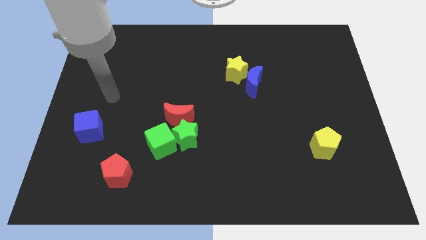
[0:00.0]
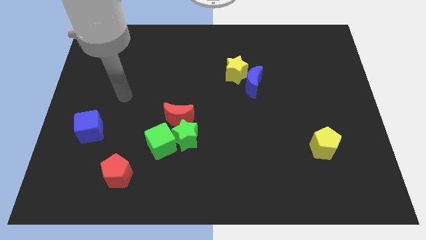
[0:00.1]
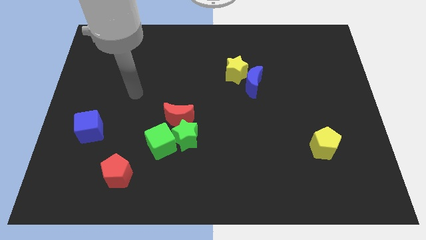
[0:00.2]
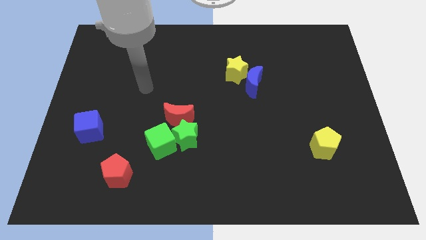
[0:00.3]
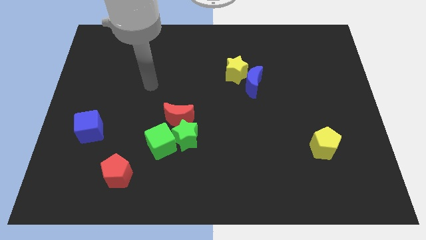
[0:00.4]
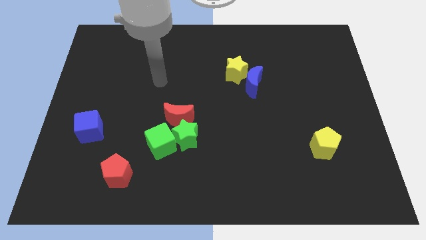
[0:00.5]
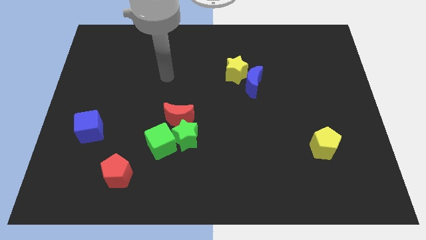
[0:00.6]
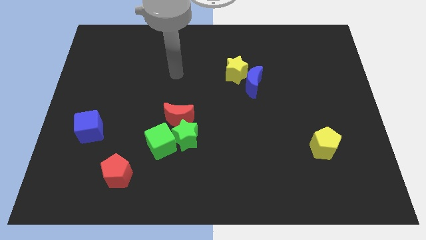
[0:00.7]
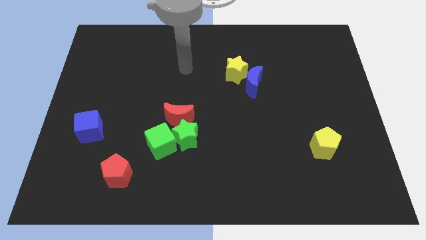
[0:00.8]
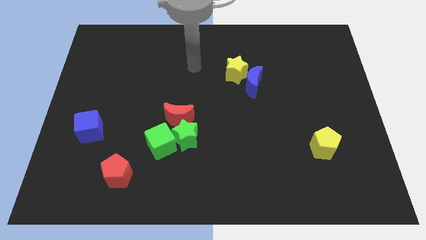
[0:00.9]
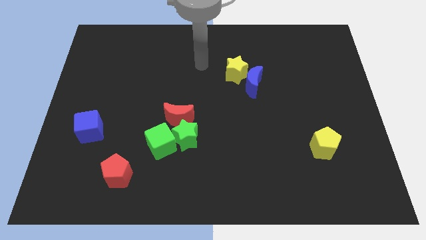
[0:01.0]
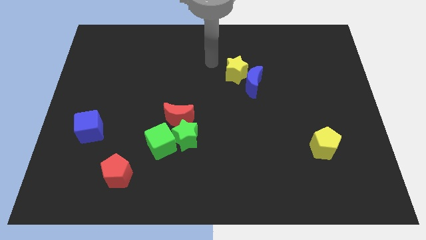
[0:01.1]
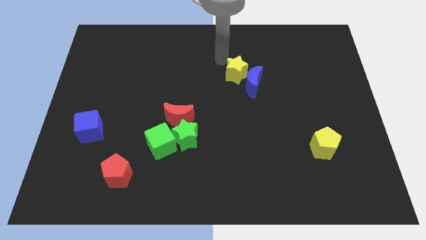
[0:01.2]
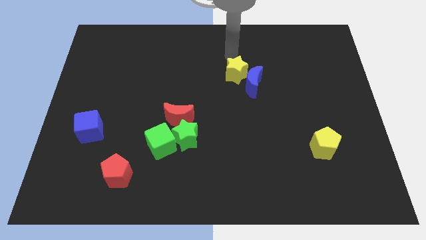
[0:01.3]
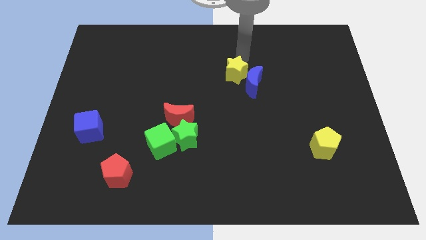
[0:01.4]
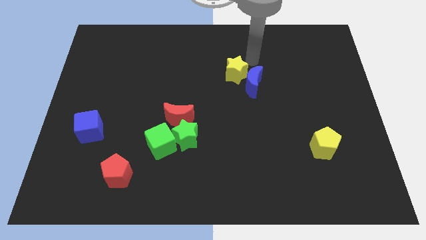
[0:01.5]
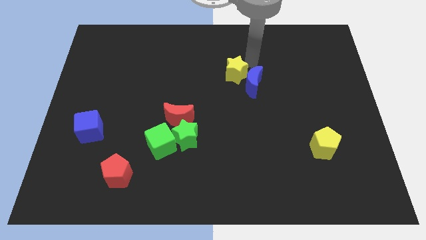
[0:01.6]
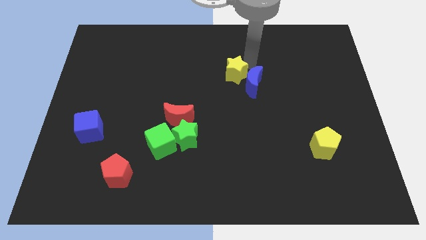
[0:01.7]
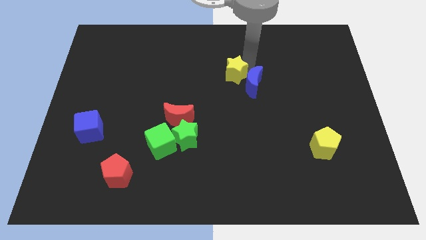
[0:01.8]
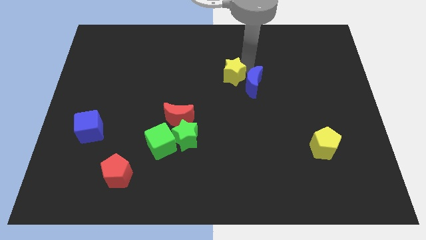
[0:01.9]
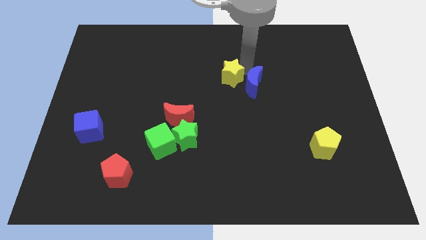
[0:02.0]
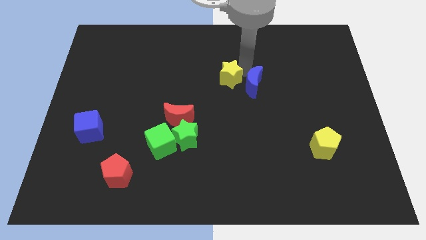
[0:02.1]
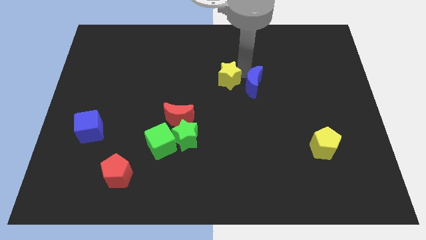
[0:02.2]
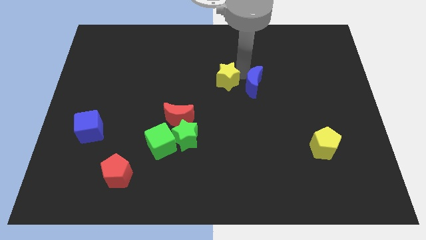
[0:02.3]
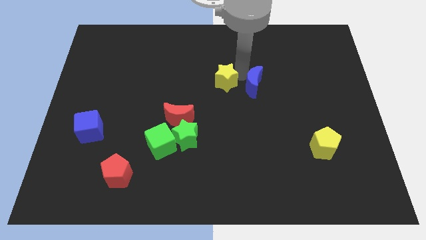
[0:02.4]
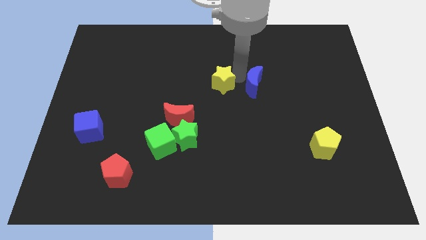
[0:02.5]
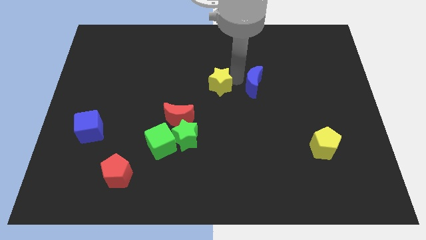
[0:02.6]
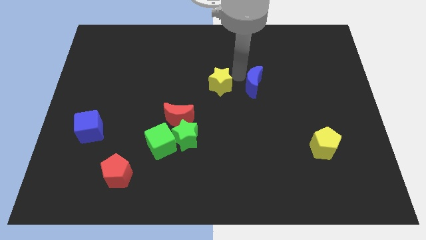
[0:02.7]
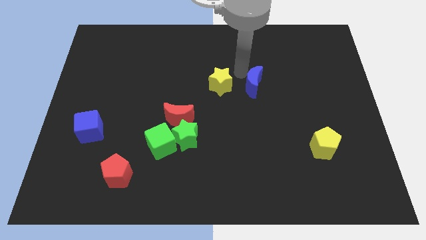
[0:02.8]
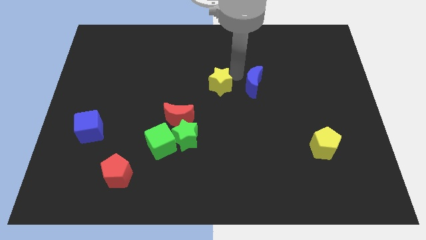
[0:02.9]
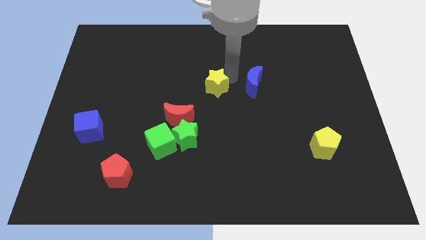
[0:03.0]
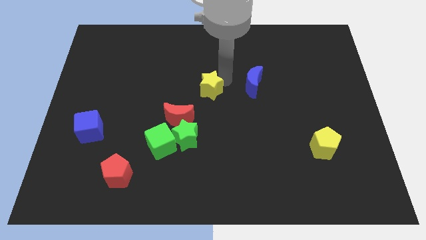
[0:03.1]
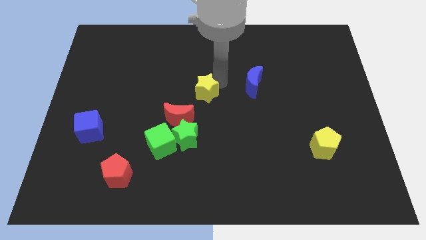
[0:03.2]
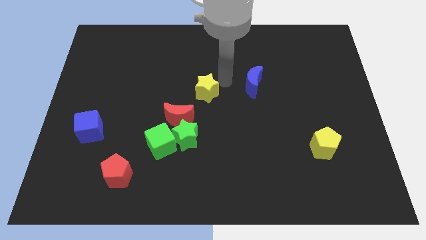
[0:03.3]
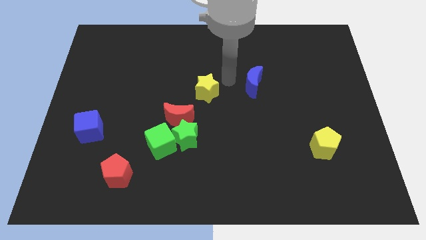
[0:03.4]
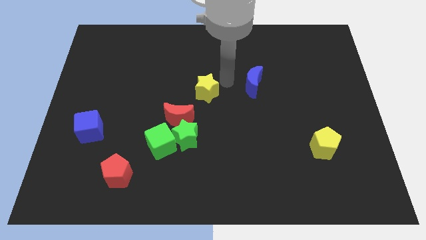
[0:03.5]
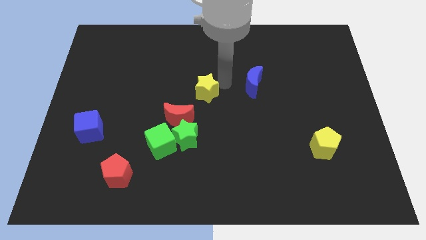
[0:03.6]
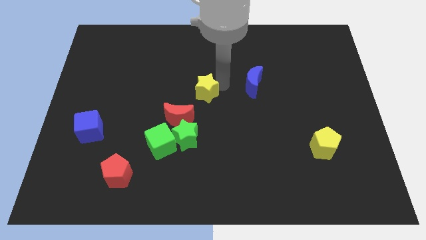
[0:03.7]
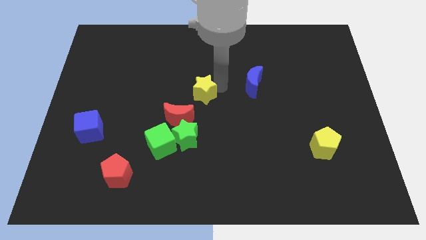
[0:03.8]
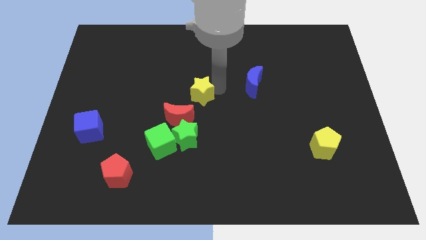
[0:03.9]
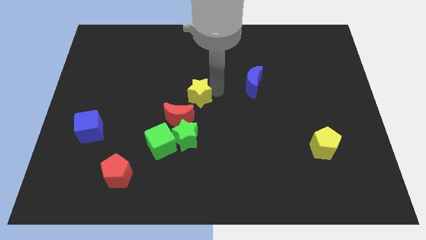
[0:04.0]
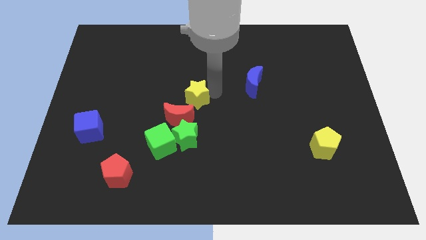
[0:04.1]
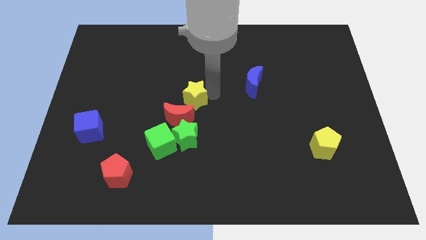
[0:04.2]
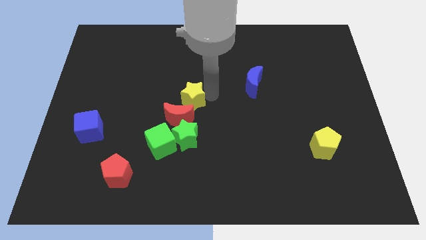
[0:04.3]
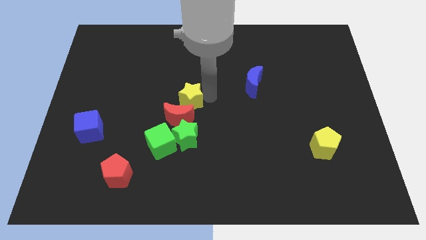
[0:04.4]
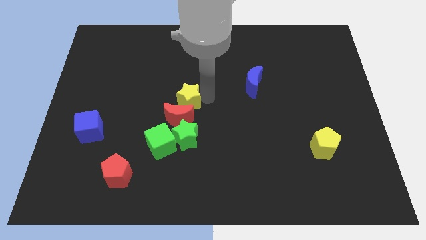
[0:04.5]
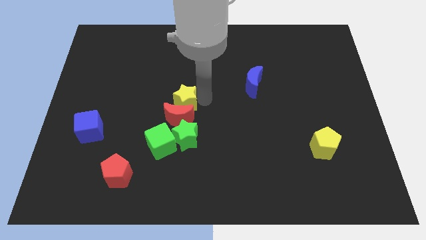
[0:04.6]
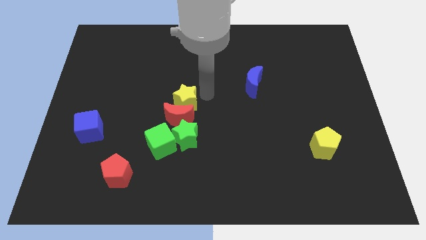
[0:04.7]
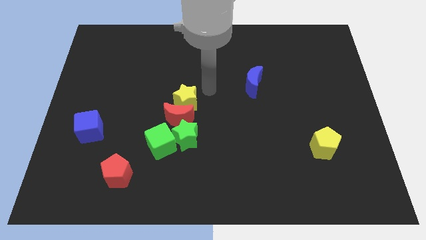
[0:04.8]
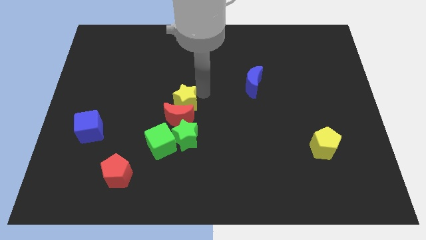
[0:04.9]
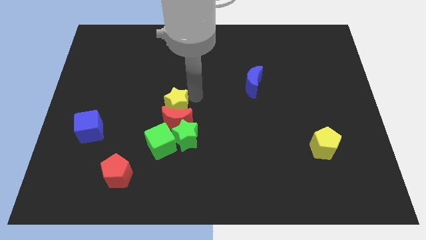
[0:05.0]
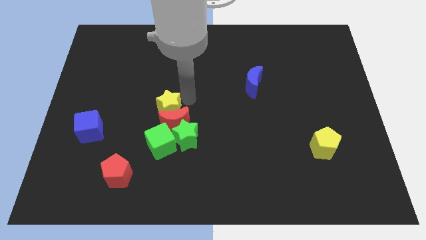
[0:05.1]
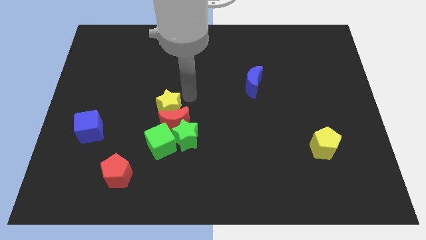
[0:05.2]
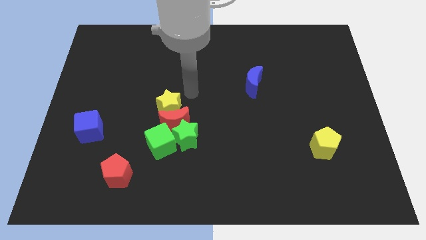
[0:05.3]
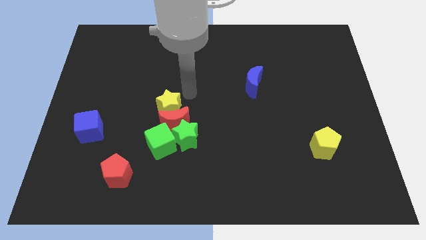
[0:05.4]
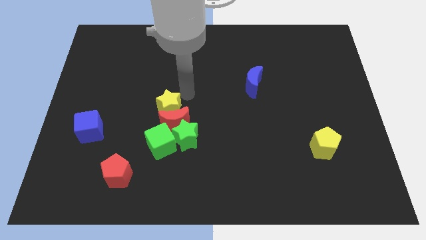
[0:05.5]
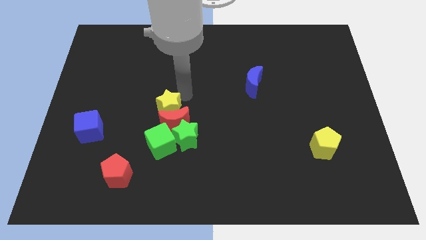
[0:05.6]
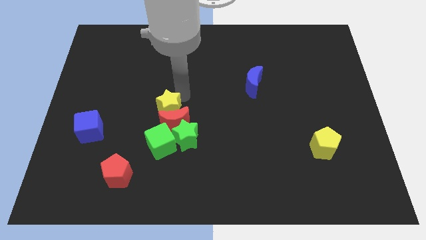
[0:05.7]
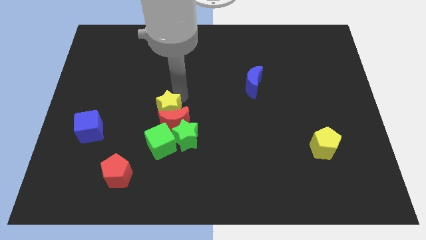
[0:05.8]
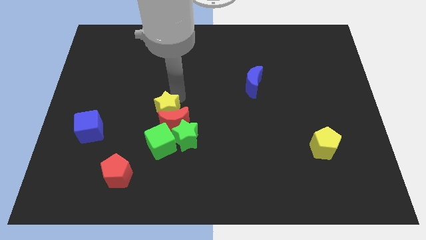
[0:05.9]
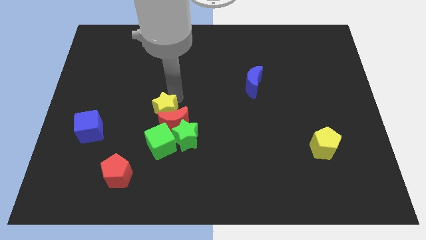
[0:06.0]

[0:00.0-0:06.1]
slide the yellow star diagonally down and left

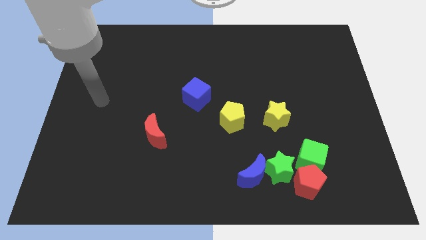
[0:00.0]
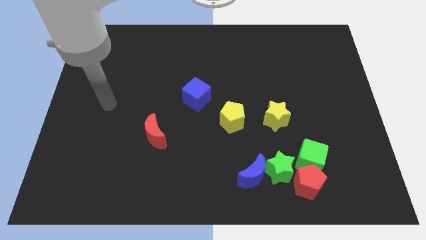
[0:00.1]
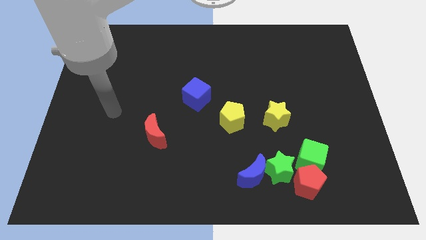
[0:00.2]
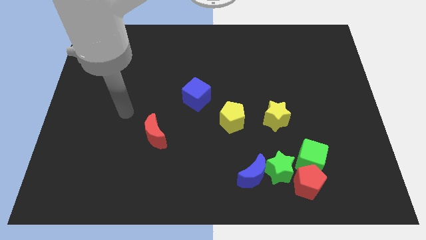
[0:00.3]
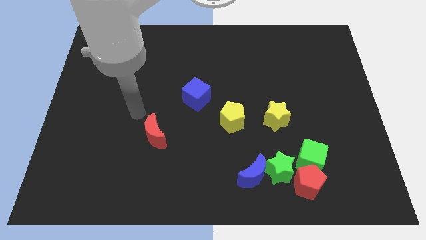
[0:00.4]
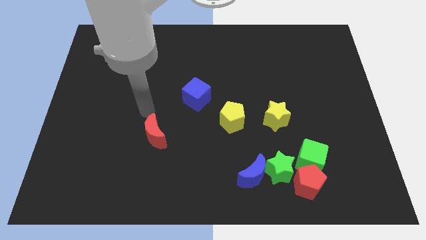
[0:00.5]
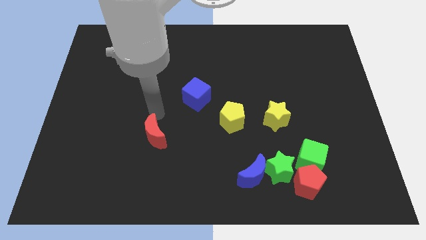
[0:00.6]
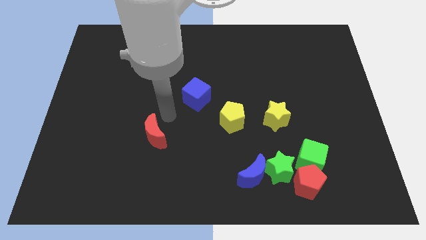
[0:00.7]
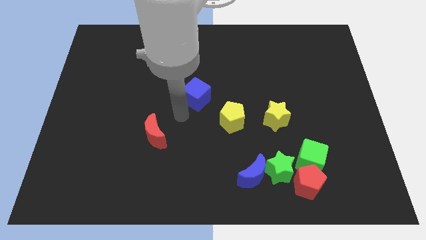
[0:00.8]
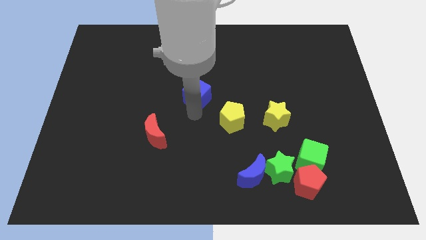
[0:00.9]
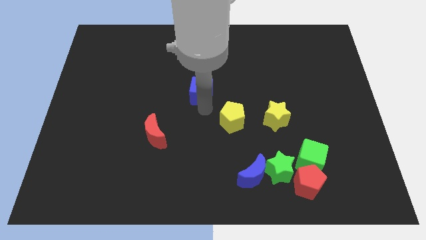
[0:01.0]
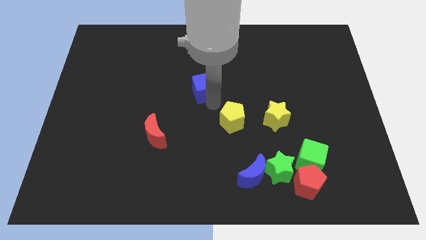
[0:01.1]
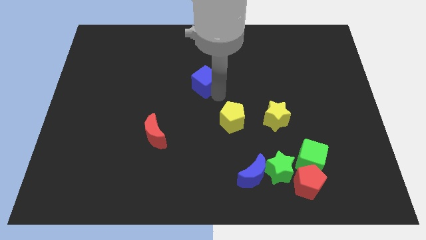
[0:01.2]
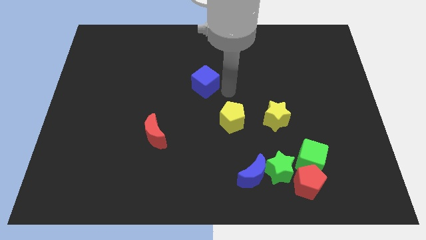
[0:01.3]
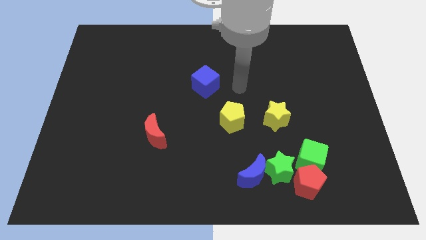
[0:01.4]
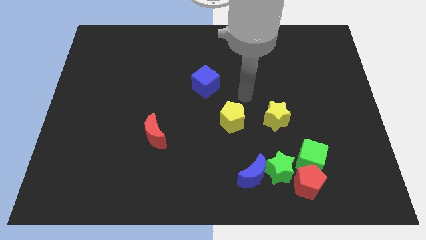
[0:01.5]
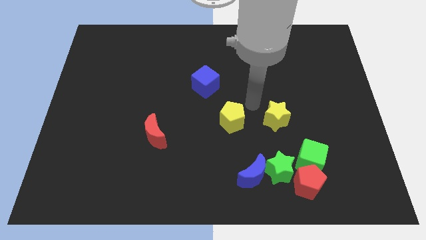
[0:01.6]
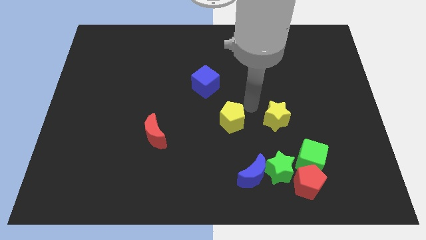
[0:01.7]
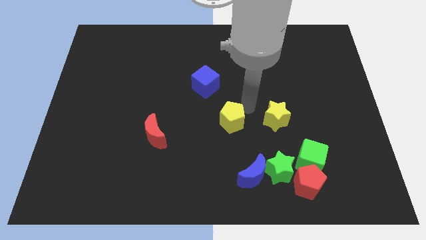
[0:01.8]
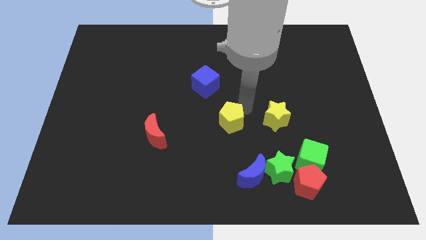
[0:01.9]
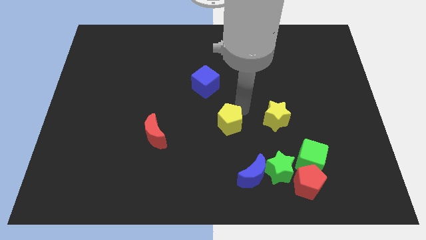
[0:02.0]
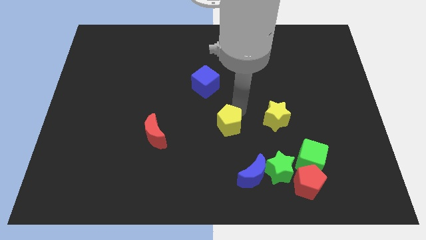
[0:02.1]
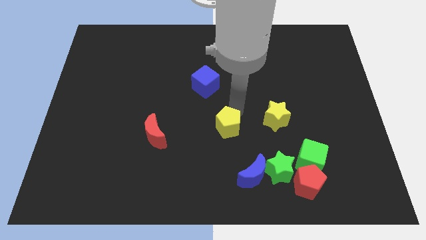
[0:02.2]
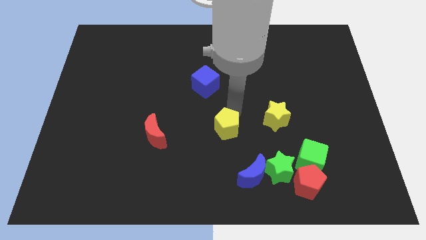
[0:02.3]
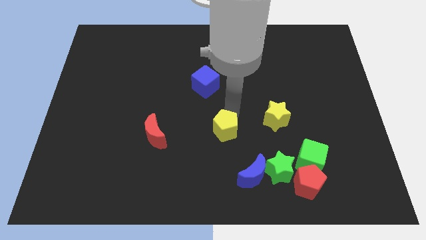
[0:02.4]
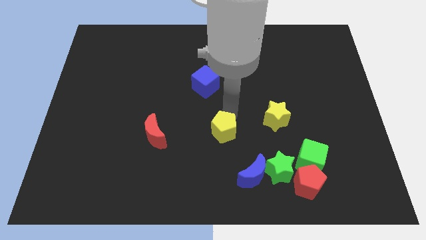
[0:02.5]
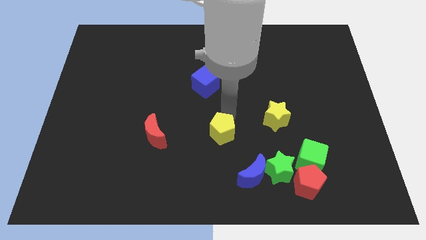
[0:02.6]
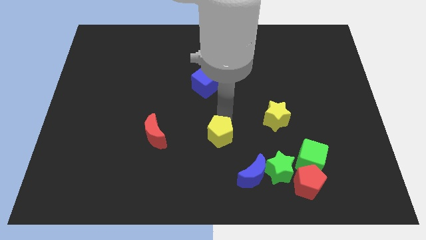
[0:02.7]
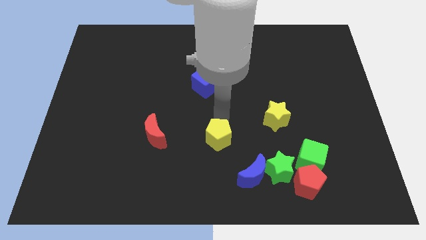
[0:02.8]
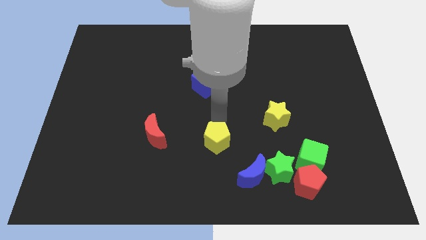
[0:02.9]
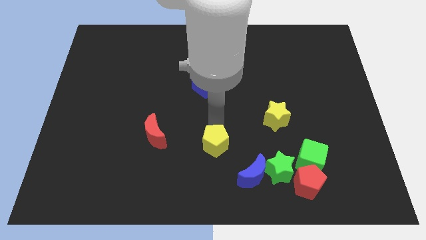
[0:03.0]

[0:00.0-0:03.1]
push the yellow pentagon downwards and left slightly
